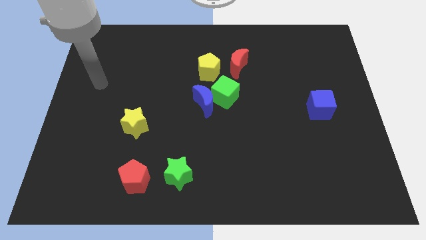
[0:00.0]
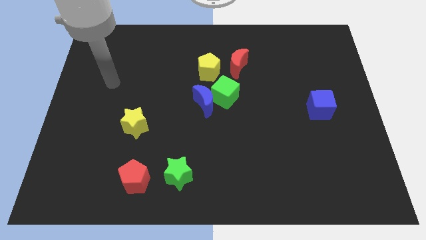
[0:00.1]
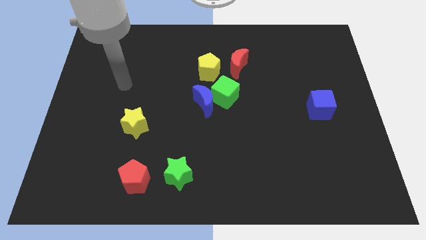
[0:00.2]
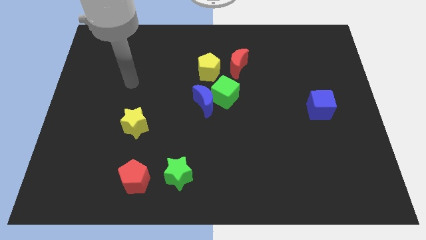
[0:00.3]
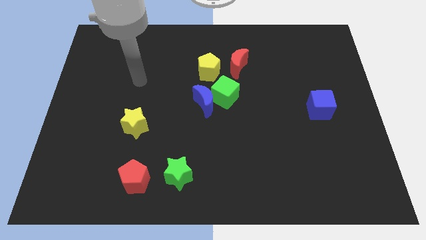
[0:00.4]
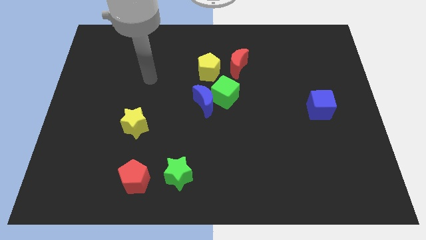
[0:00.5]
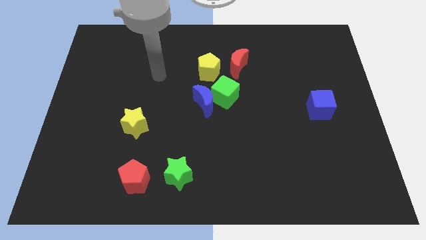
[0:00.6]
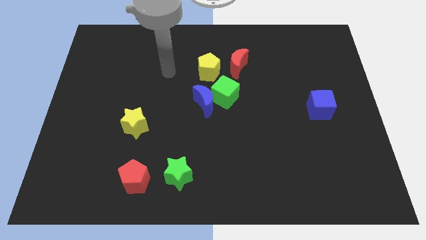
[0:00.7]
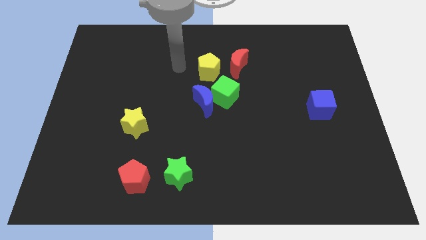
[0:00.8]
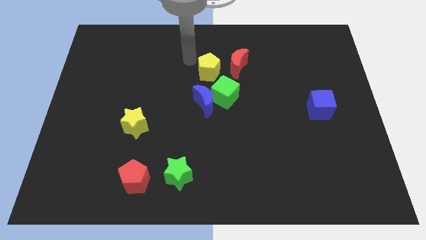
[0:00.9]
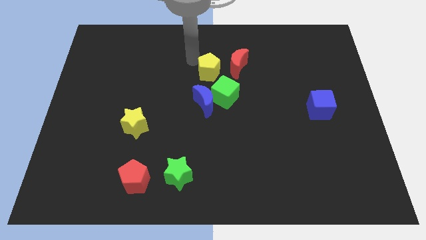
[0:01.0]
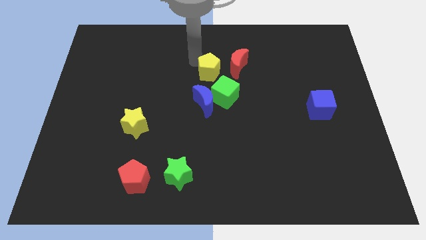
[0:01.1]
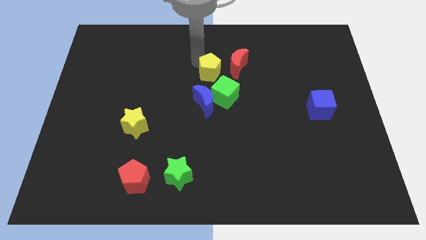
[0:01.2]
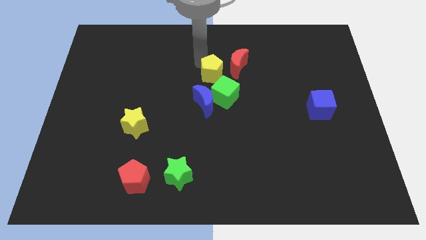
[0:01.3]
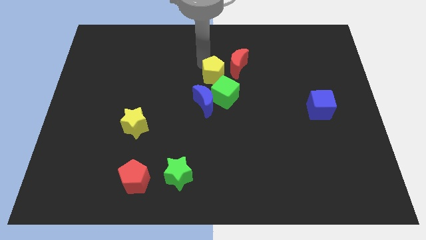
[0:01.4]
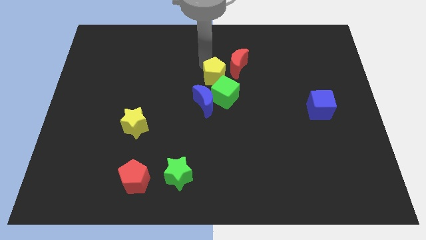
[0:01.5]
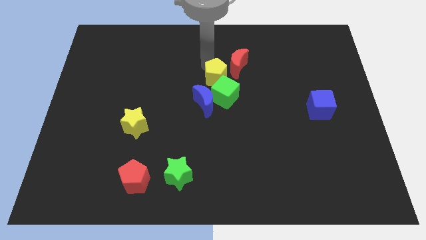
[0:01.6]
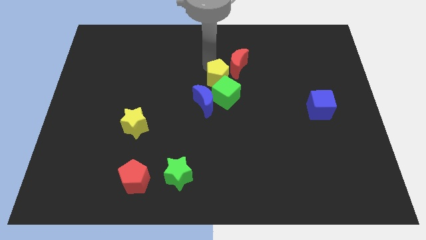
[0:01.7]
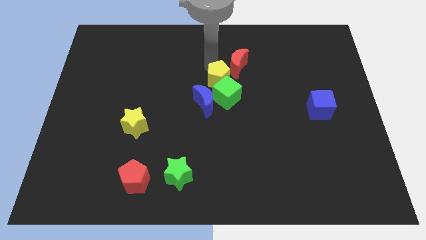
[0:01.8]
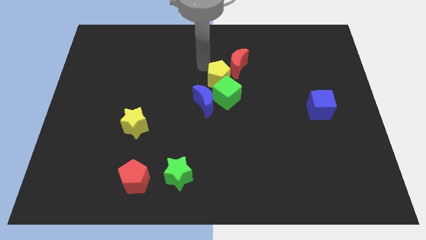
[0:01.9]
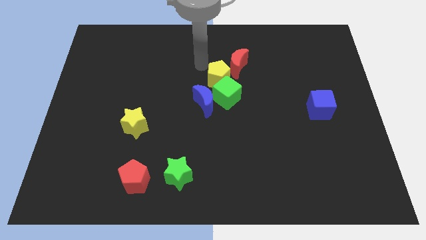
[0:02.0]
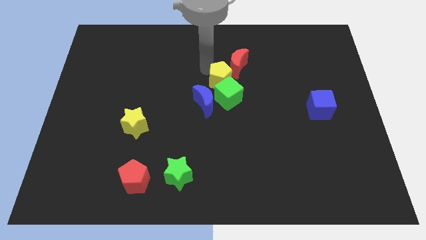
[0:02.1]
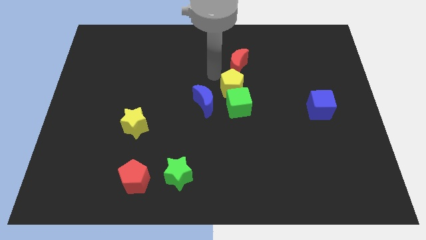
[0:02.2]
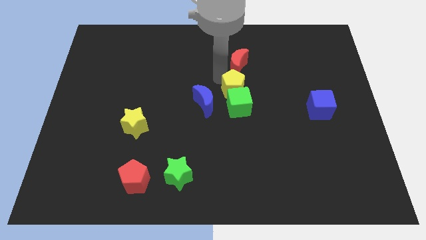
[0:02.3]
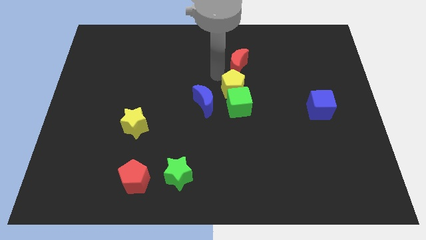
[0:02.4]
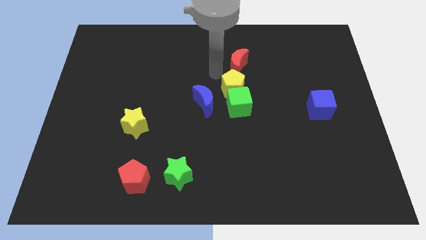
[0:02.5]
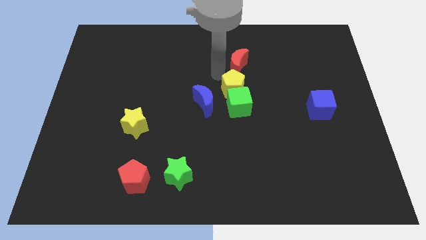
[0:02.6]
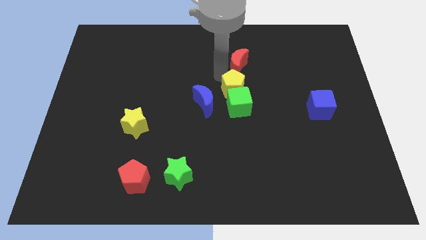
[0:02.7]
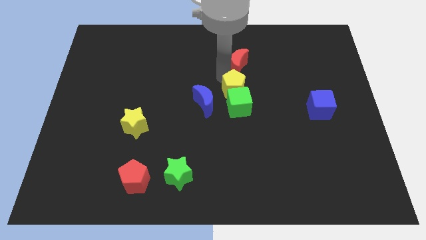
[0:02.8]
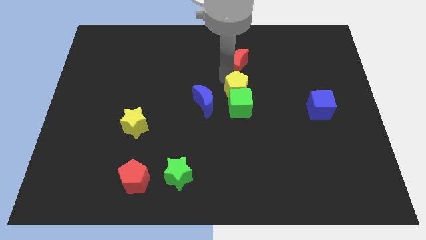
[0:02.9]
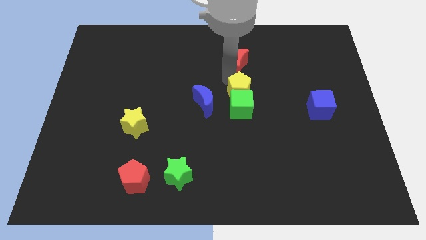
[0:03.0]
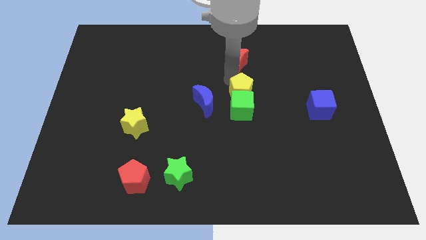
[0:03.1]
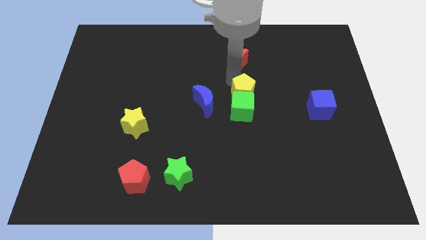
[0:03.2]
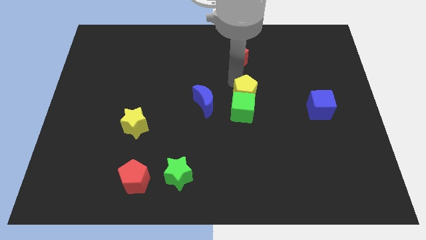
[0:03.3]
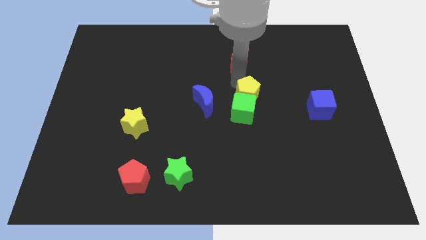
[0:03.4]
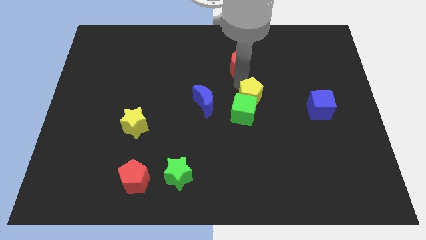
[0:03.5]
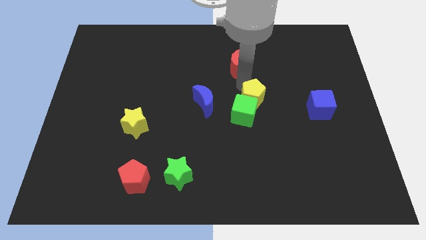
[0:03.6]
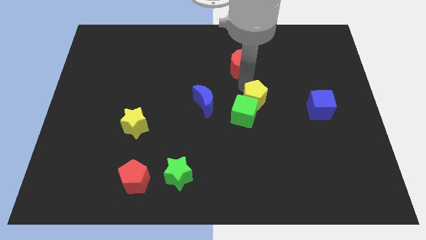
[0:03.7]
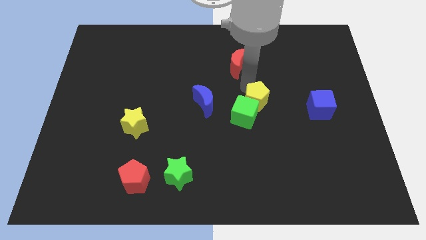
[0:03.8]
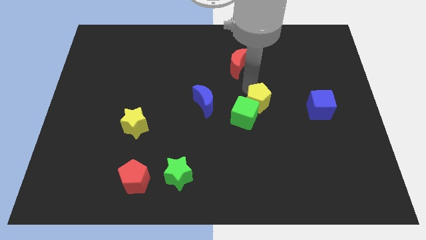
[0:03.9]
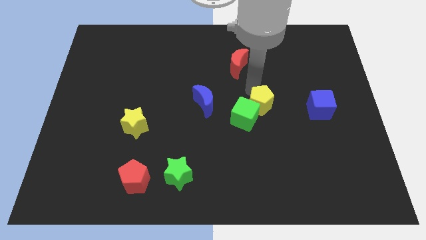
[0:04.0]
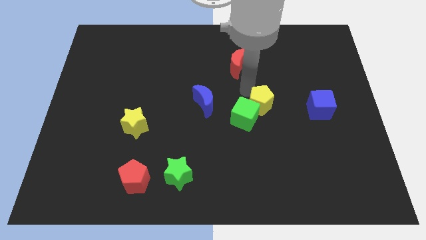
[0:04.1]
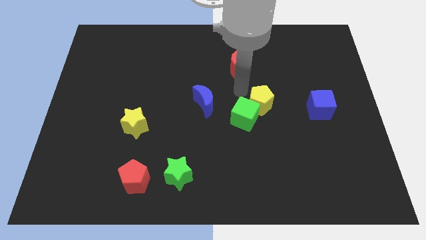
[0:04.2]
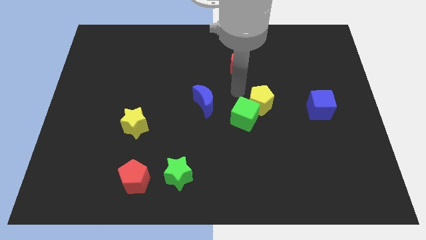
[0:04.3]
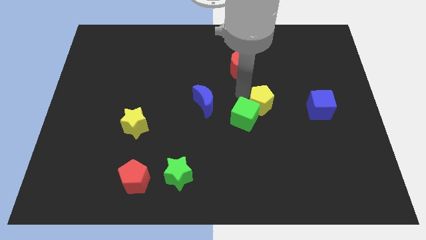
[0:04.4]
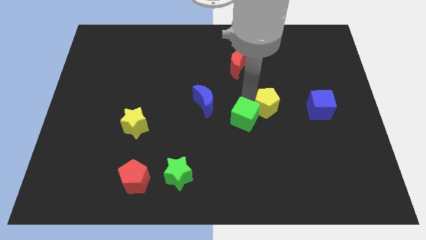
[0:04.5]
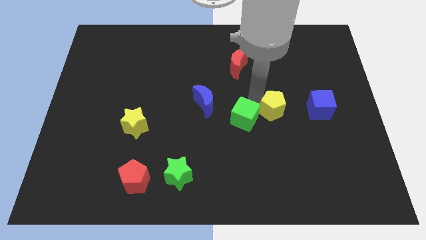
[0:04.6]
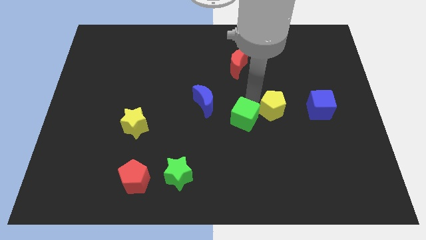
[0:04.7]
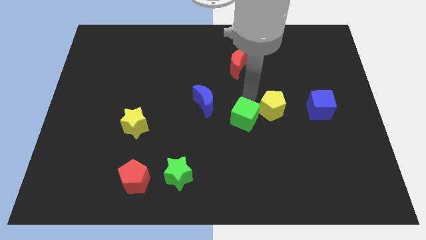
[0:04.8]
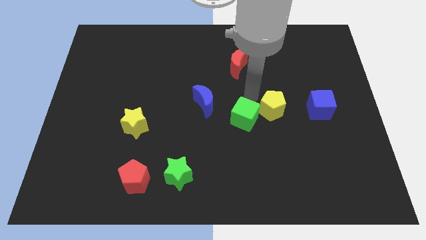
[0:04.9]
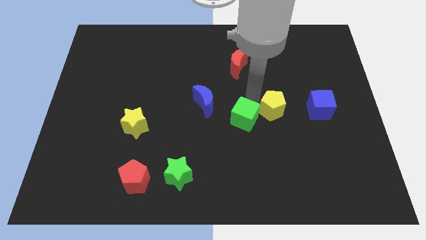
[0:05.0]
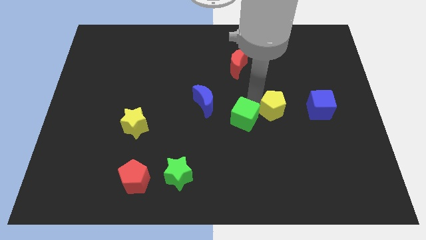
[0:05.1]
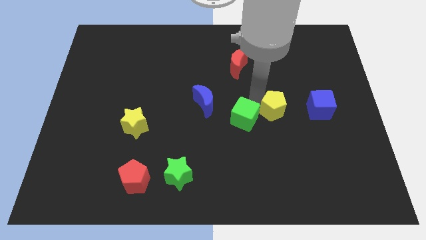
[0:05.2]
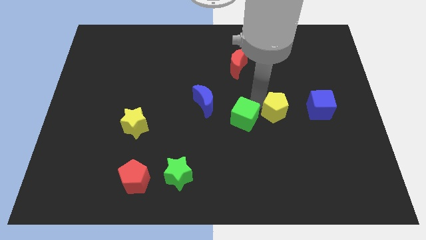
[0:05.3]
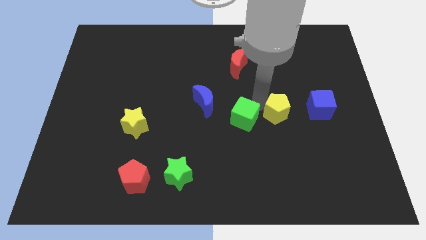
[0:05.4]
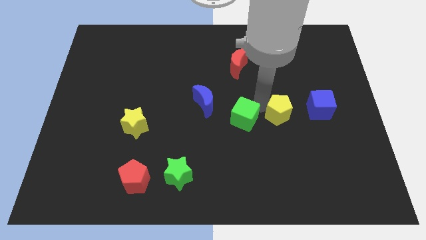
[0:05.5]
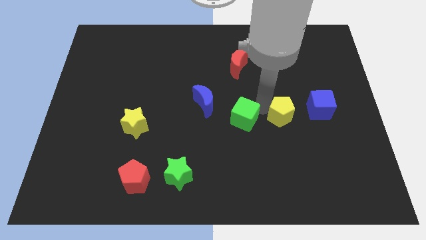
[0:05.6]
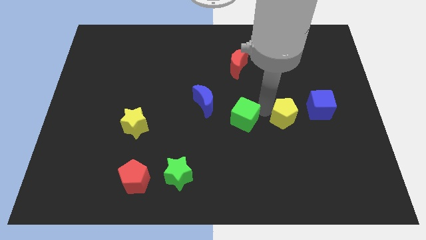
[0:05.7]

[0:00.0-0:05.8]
slide the yellow pentagon diagonally down and to the left of the blue cube

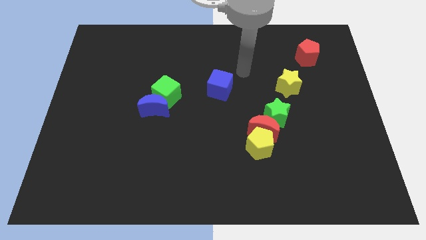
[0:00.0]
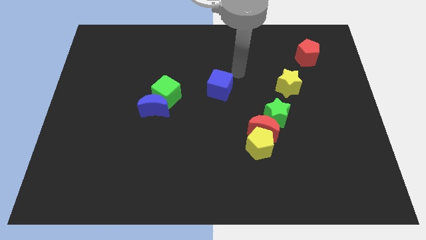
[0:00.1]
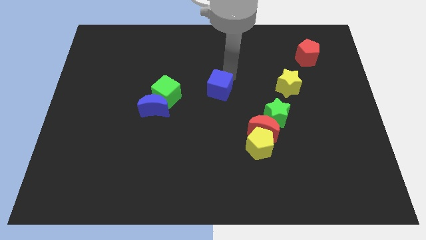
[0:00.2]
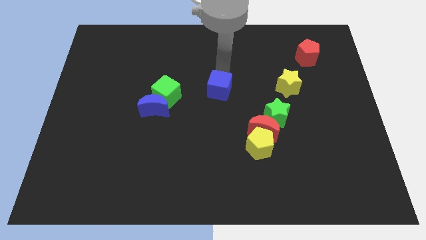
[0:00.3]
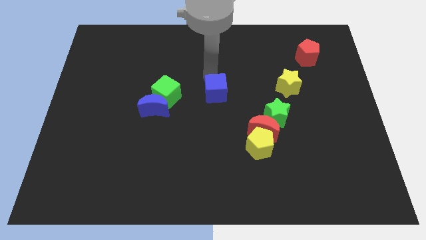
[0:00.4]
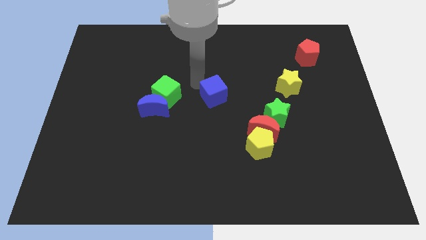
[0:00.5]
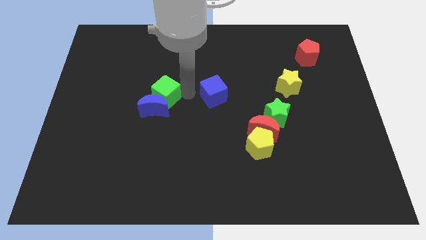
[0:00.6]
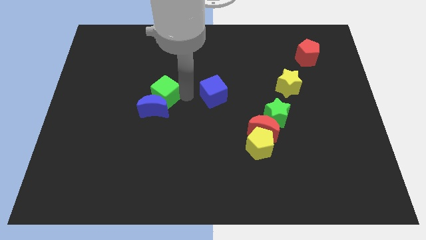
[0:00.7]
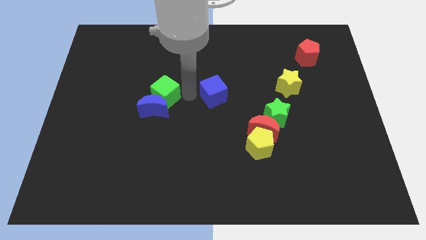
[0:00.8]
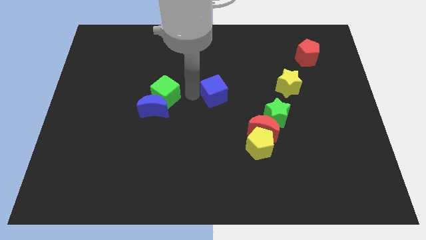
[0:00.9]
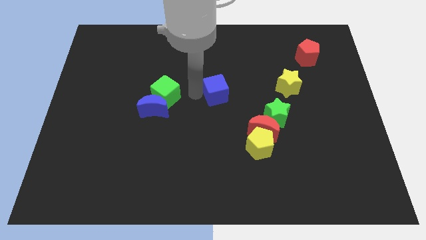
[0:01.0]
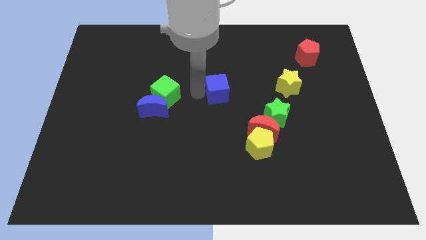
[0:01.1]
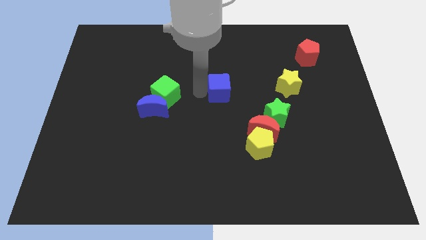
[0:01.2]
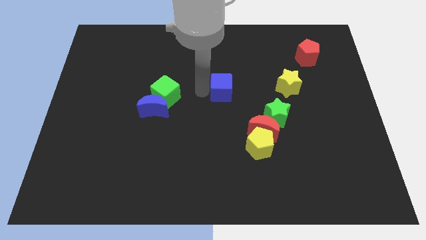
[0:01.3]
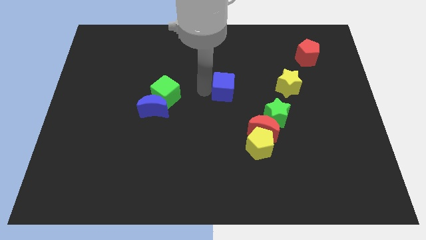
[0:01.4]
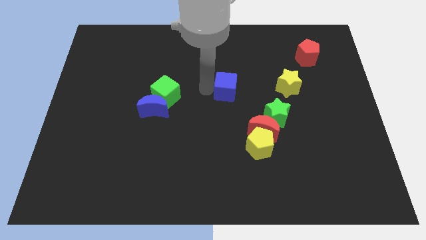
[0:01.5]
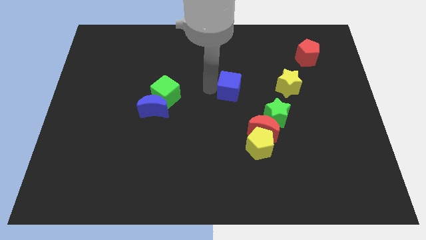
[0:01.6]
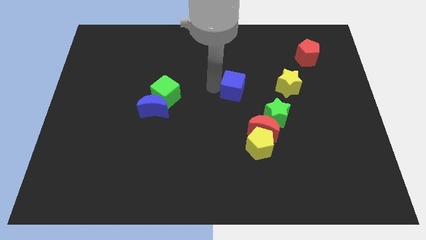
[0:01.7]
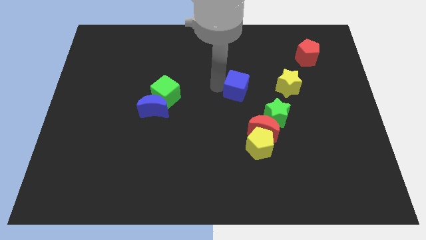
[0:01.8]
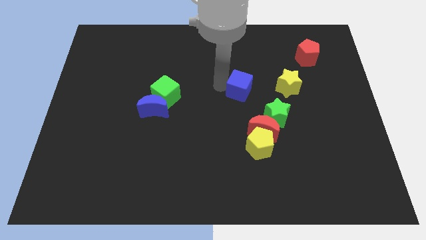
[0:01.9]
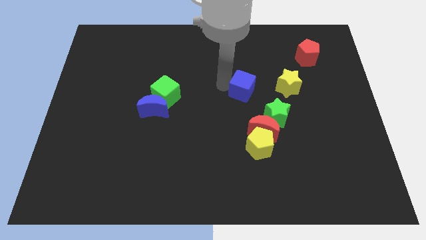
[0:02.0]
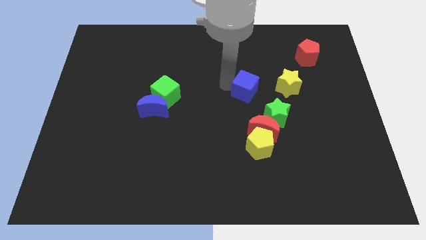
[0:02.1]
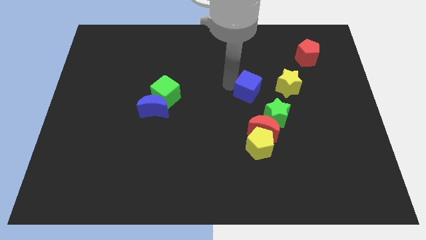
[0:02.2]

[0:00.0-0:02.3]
put the blue cube to the top of the yellow pentagon
